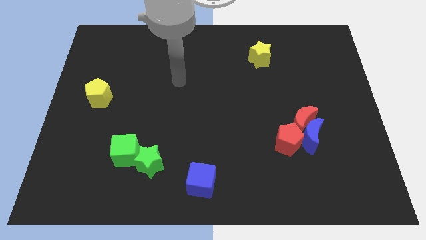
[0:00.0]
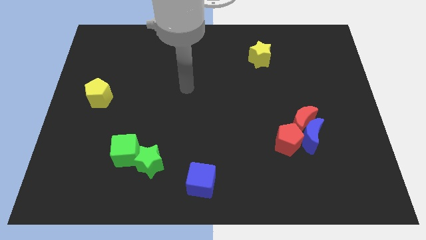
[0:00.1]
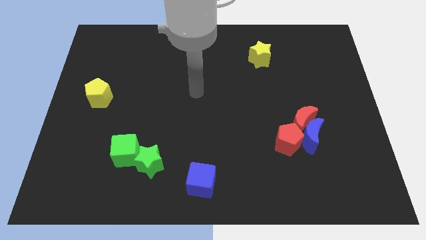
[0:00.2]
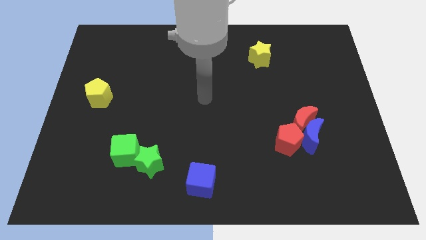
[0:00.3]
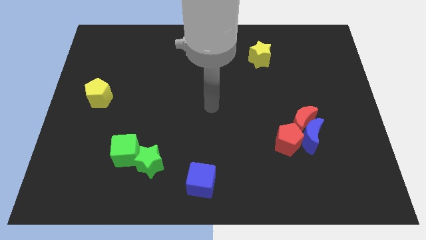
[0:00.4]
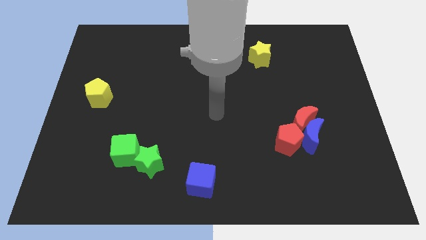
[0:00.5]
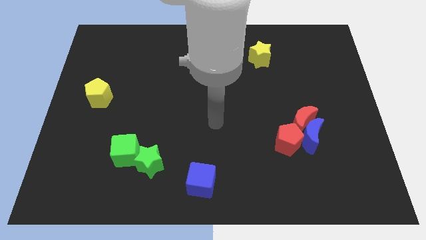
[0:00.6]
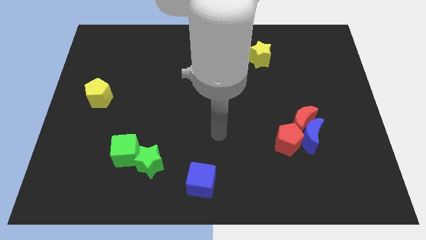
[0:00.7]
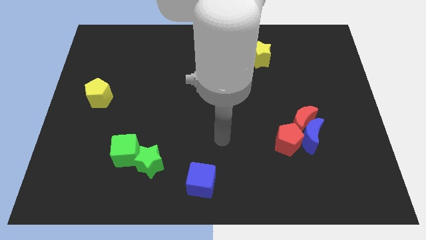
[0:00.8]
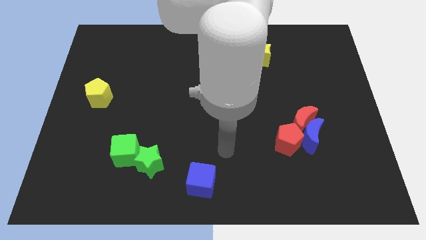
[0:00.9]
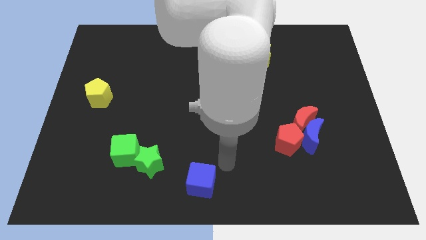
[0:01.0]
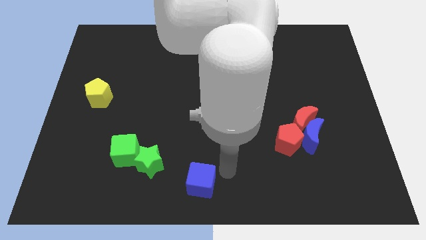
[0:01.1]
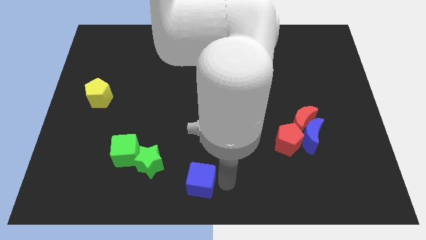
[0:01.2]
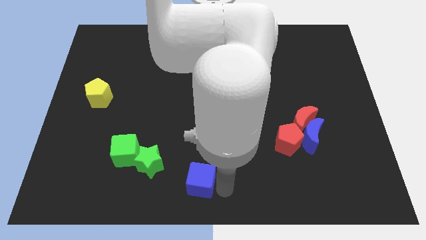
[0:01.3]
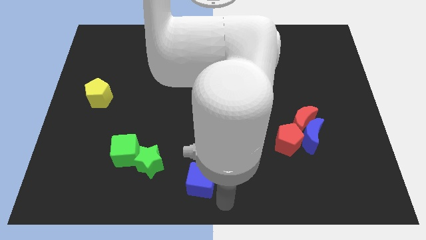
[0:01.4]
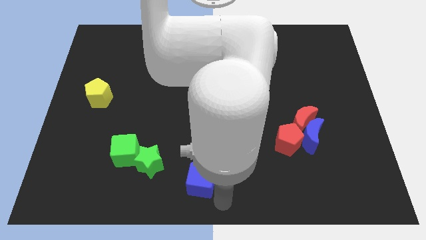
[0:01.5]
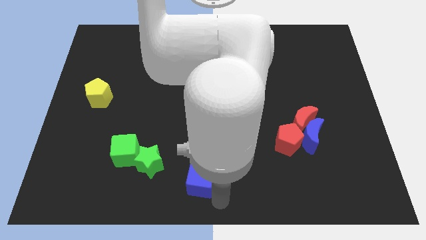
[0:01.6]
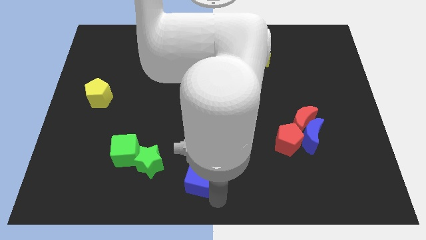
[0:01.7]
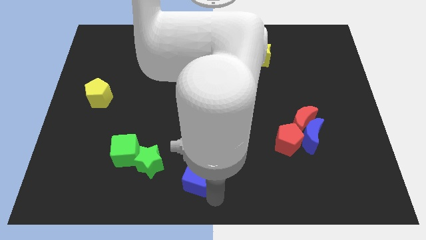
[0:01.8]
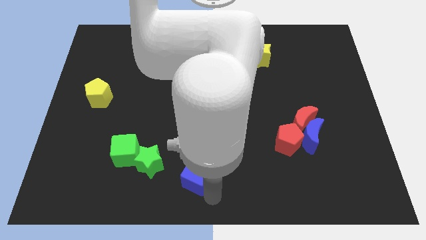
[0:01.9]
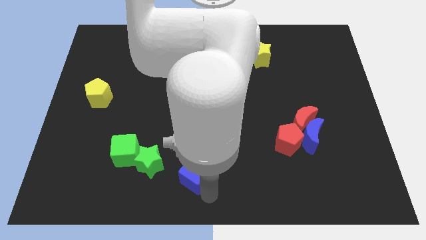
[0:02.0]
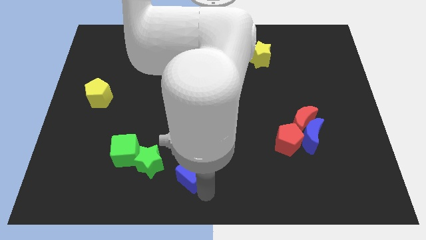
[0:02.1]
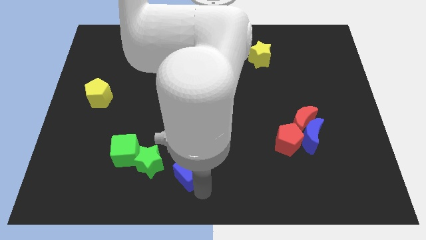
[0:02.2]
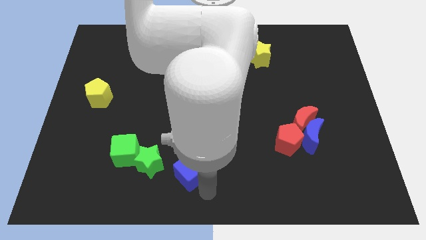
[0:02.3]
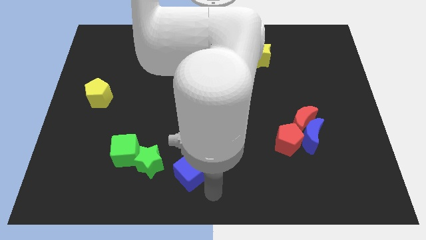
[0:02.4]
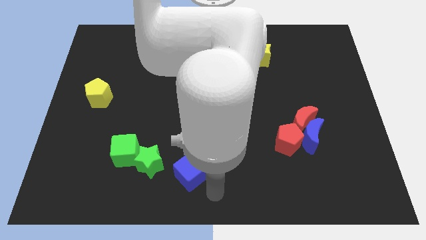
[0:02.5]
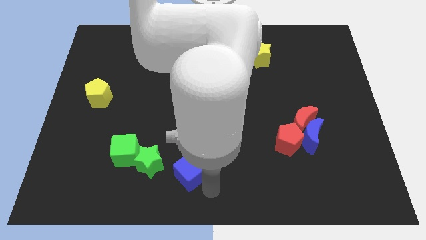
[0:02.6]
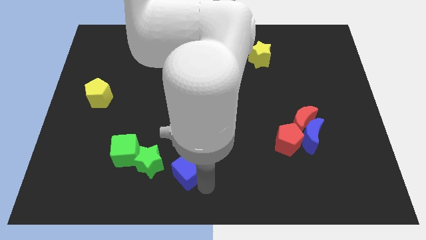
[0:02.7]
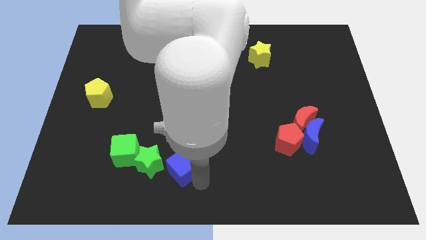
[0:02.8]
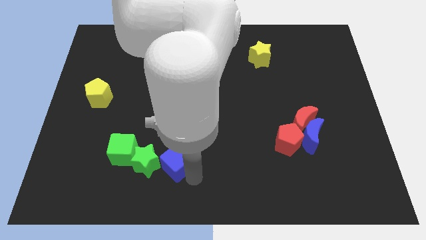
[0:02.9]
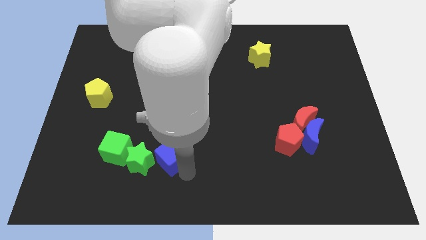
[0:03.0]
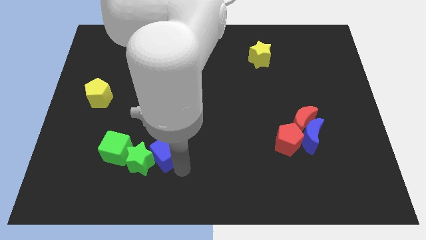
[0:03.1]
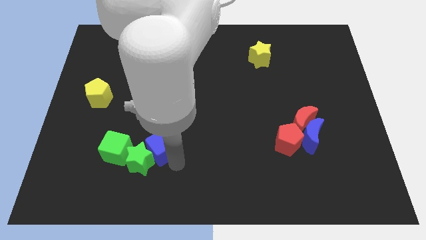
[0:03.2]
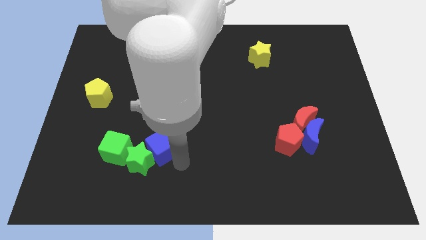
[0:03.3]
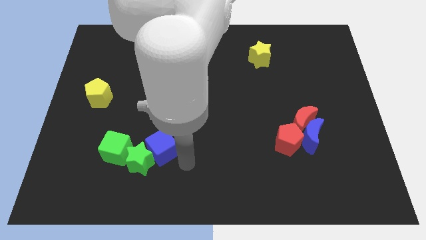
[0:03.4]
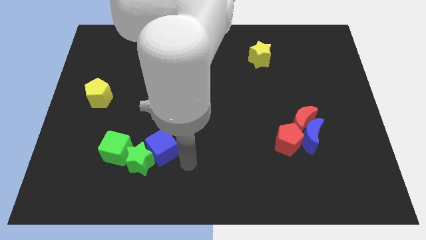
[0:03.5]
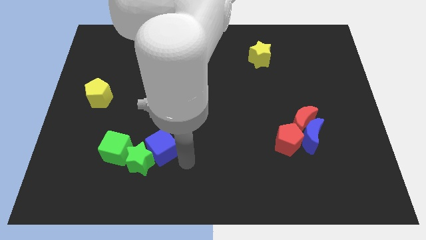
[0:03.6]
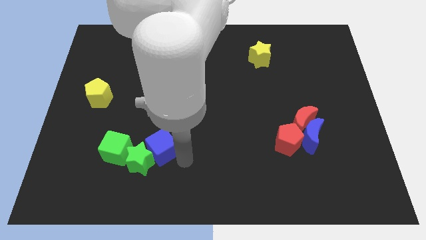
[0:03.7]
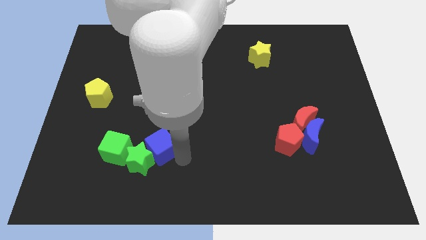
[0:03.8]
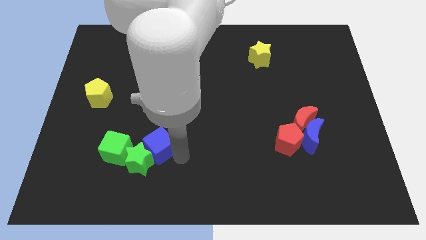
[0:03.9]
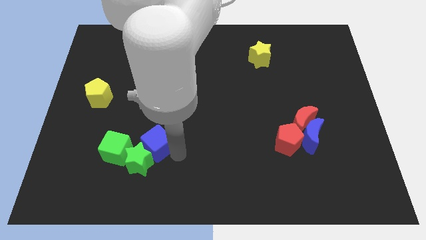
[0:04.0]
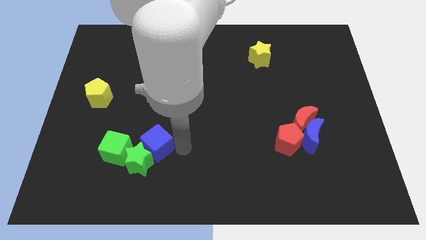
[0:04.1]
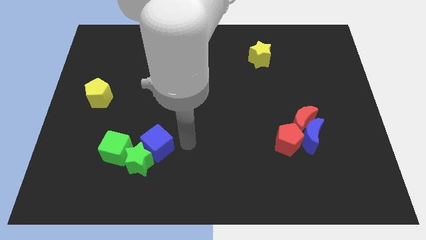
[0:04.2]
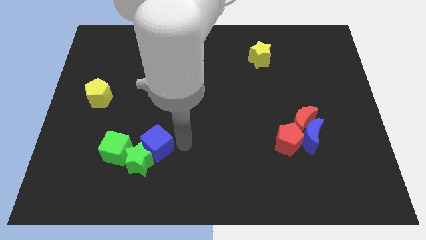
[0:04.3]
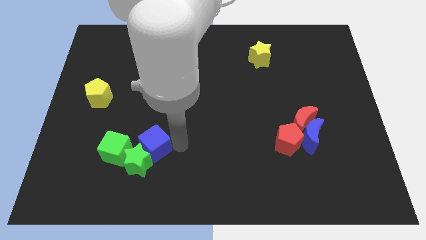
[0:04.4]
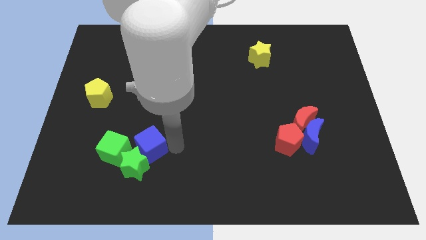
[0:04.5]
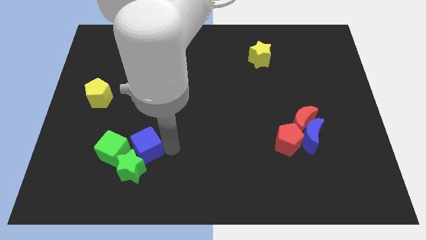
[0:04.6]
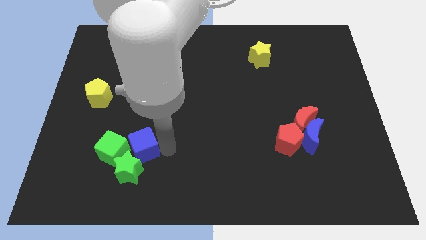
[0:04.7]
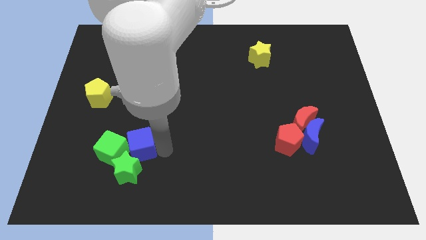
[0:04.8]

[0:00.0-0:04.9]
move the blue cube close to the green cube

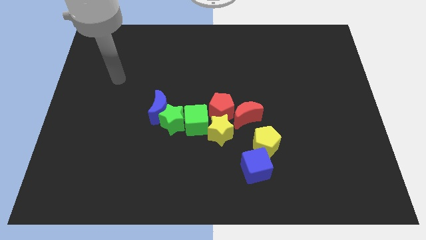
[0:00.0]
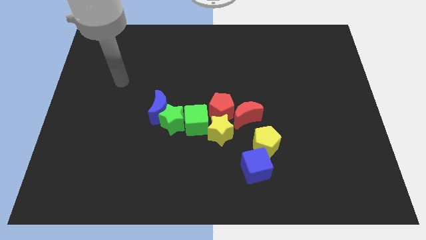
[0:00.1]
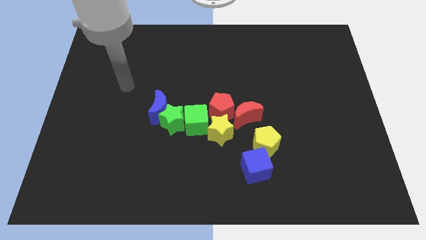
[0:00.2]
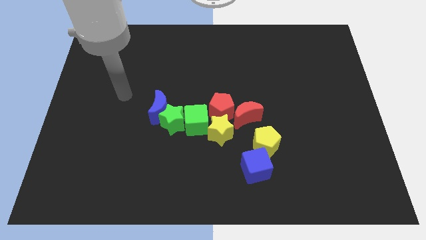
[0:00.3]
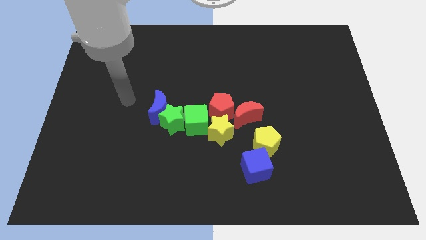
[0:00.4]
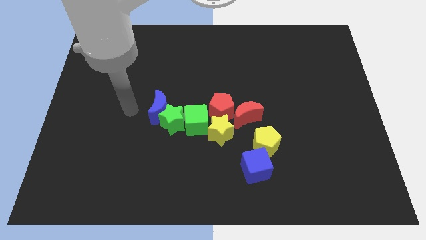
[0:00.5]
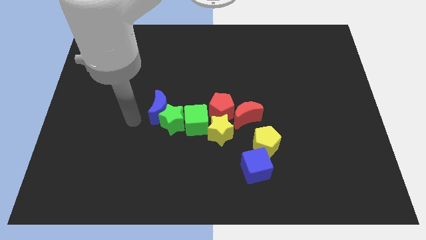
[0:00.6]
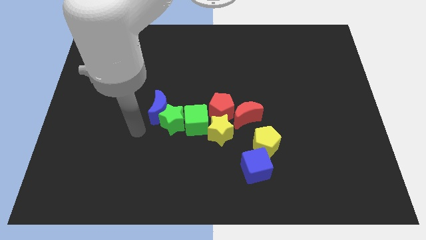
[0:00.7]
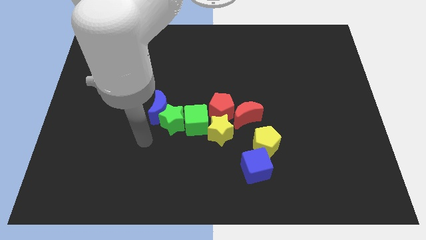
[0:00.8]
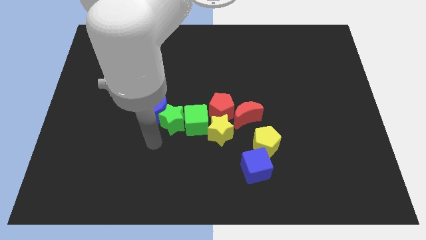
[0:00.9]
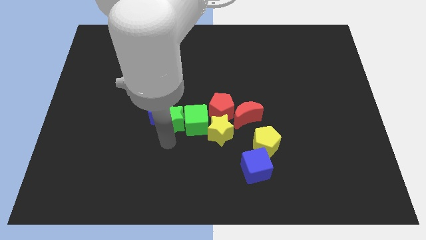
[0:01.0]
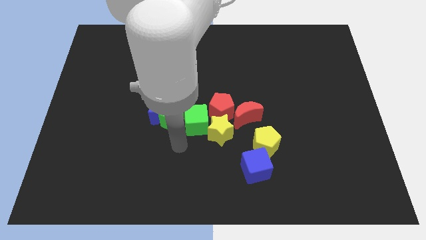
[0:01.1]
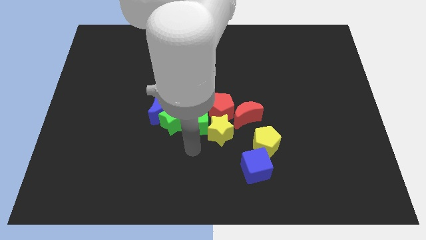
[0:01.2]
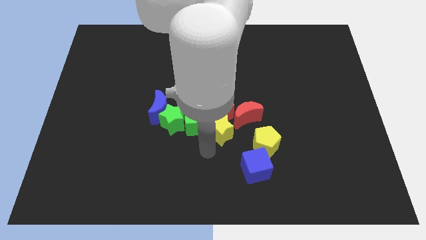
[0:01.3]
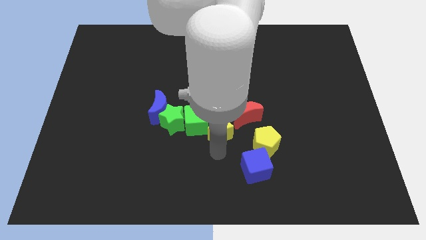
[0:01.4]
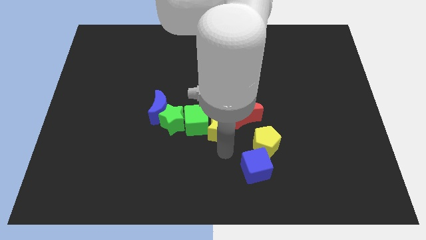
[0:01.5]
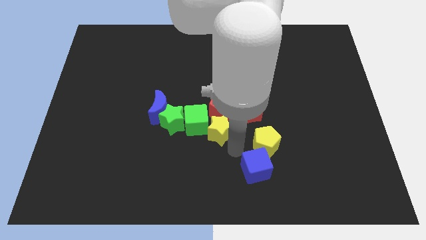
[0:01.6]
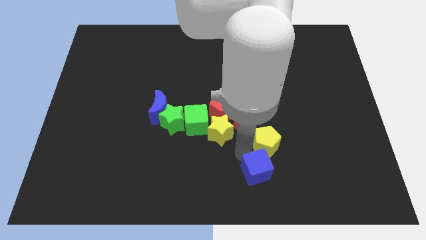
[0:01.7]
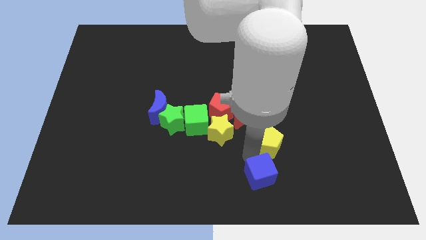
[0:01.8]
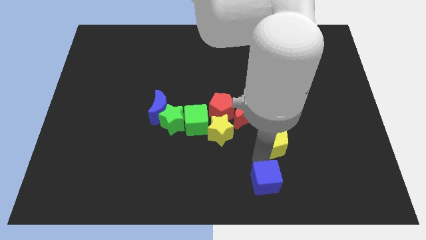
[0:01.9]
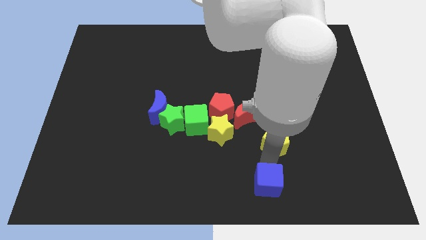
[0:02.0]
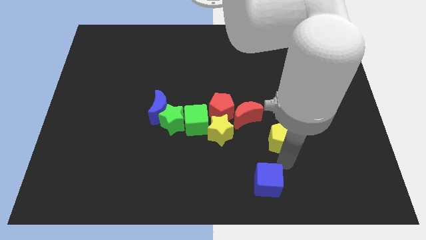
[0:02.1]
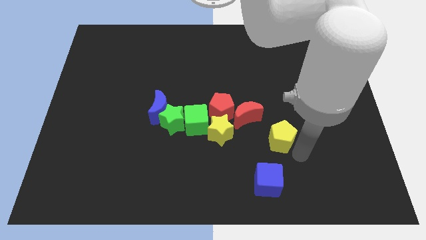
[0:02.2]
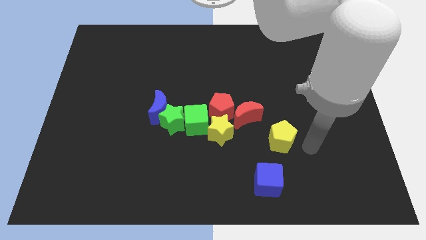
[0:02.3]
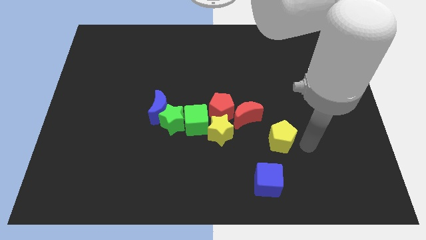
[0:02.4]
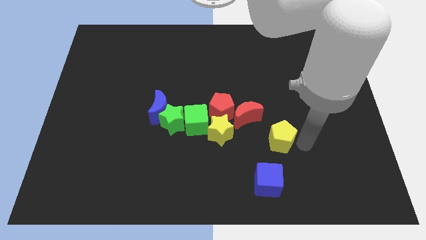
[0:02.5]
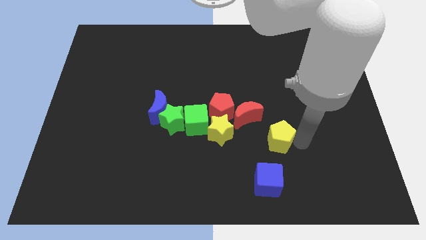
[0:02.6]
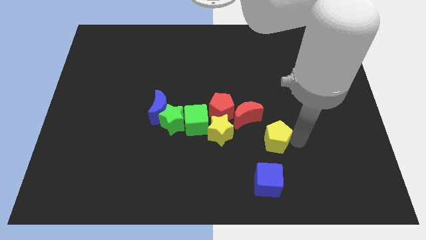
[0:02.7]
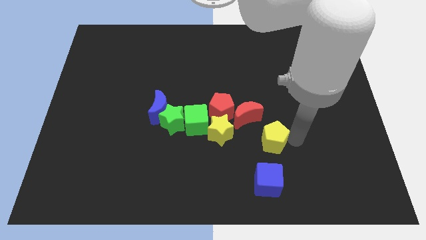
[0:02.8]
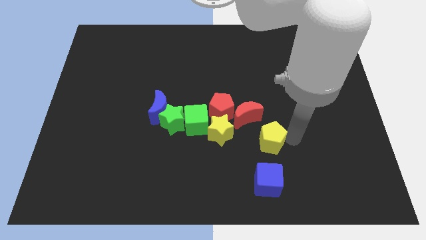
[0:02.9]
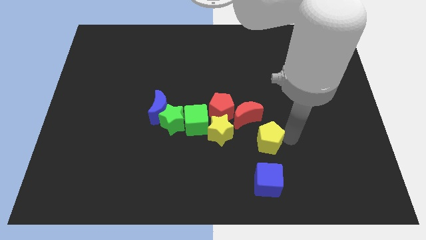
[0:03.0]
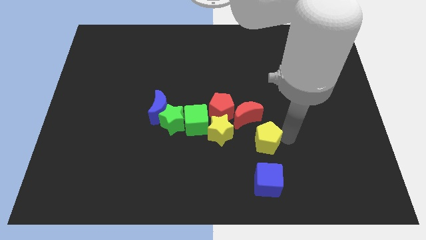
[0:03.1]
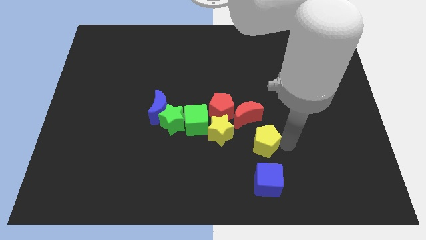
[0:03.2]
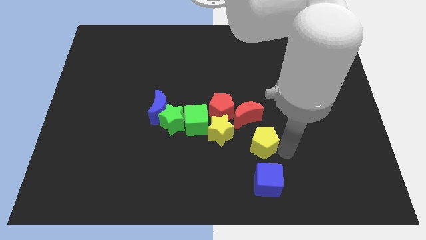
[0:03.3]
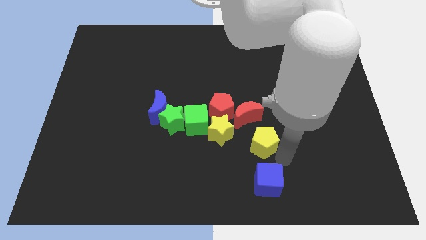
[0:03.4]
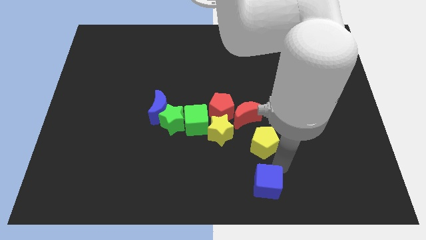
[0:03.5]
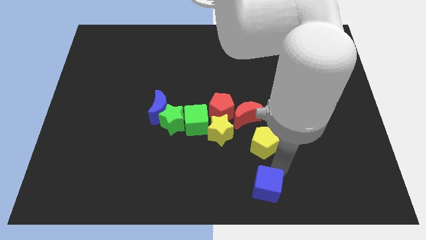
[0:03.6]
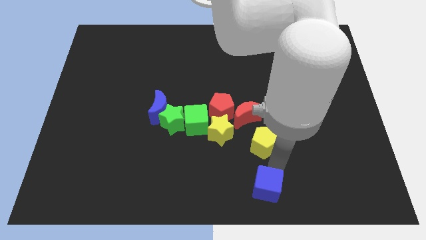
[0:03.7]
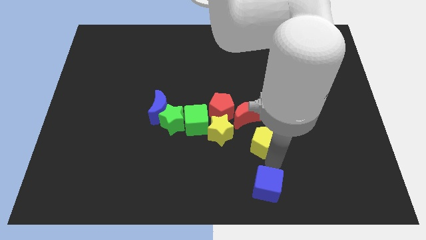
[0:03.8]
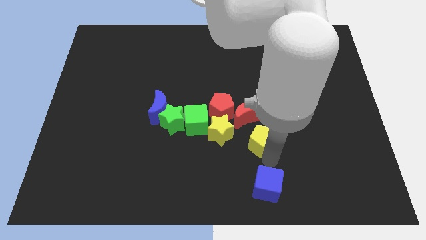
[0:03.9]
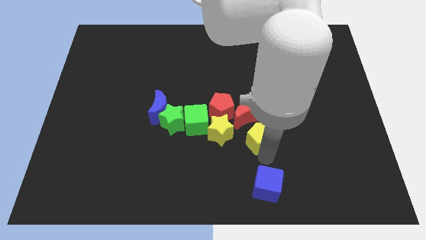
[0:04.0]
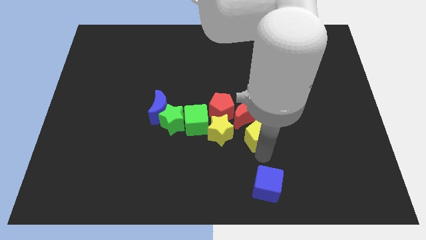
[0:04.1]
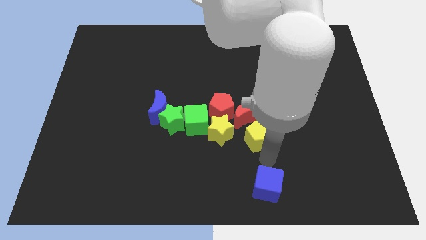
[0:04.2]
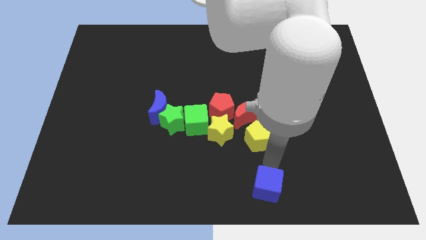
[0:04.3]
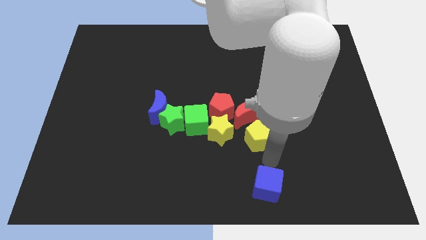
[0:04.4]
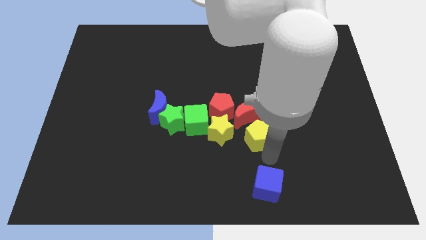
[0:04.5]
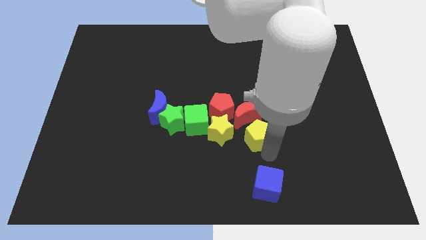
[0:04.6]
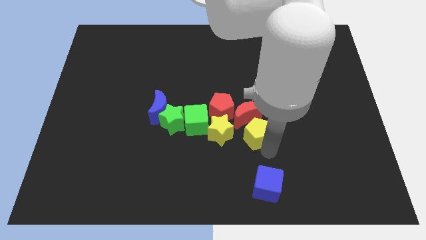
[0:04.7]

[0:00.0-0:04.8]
put the yellow pentagon next to the red moon
